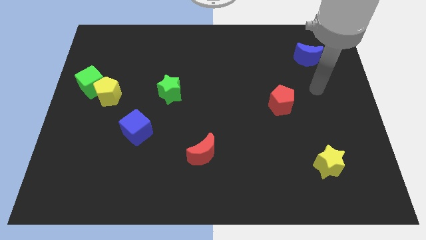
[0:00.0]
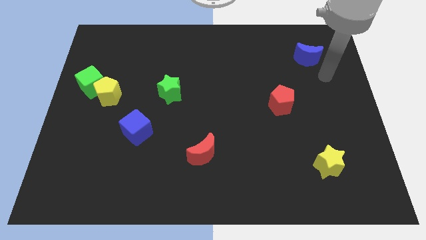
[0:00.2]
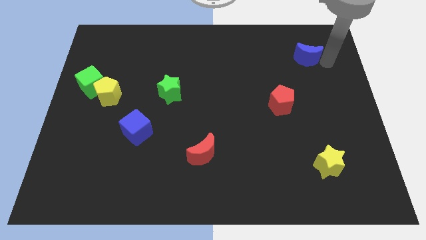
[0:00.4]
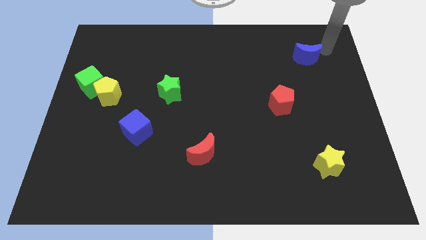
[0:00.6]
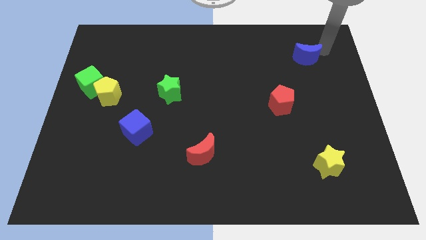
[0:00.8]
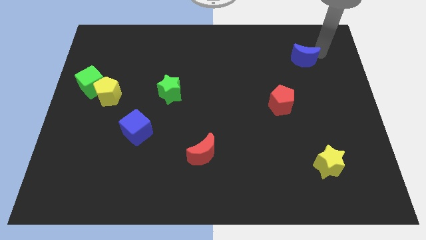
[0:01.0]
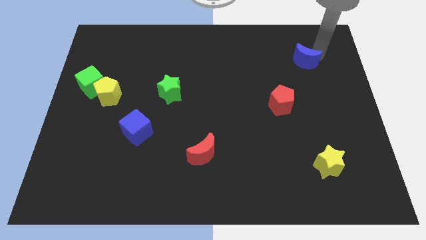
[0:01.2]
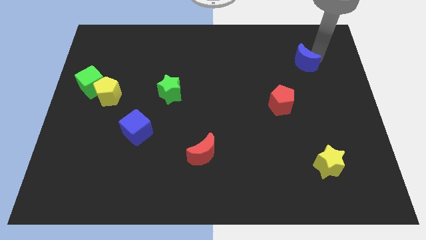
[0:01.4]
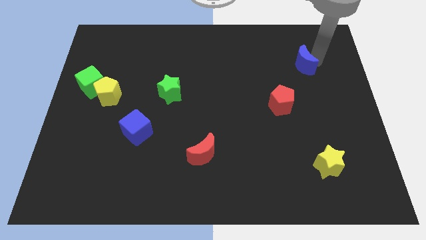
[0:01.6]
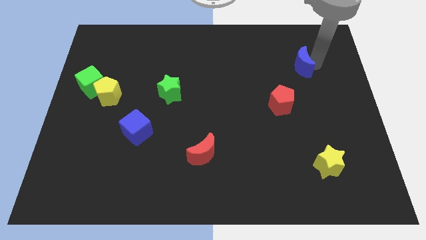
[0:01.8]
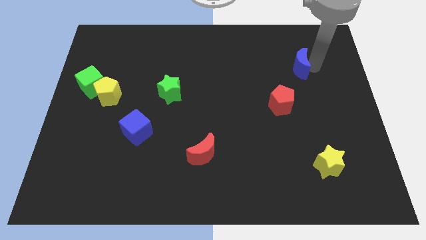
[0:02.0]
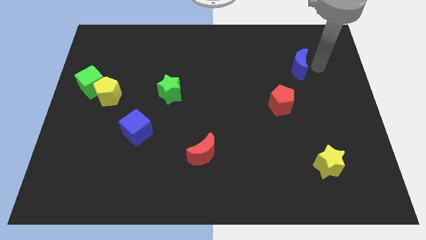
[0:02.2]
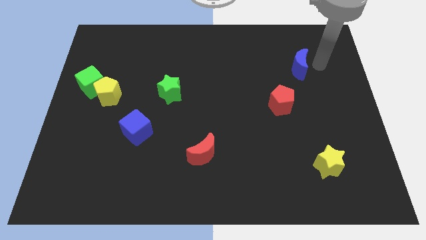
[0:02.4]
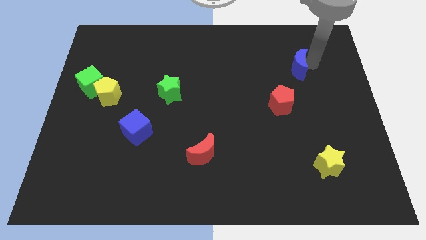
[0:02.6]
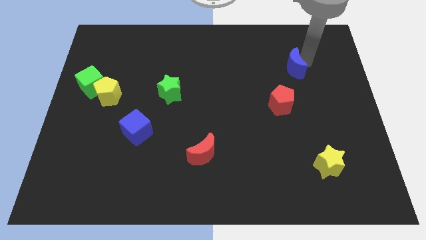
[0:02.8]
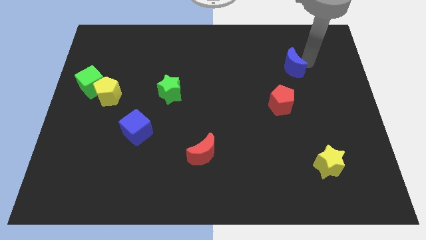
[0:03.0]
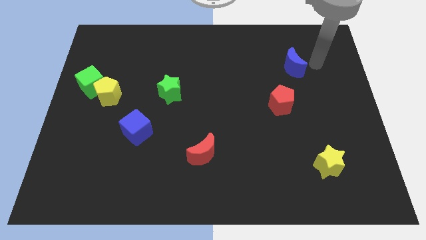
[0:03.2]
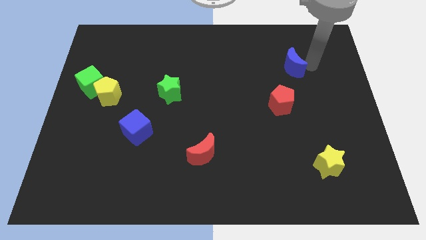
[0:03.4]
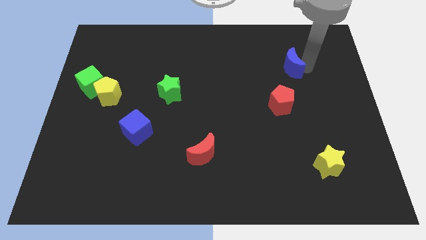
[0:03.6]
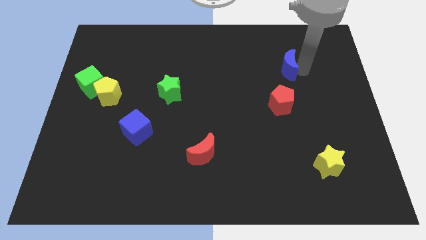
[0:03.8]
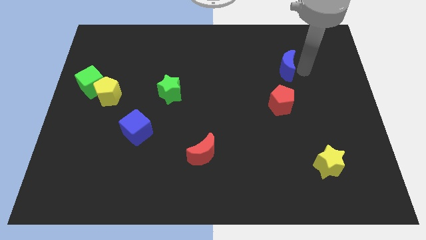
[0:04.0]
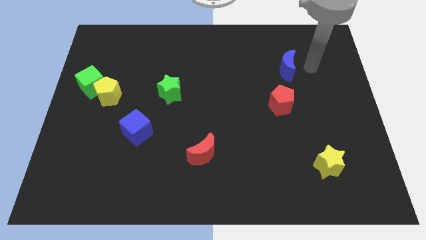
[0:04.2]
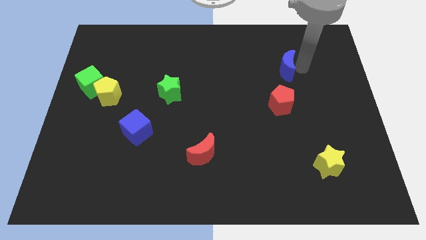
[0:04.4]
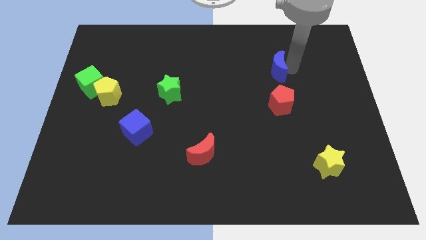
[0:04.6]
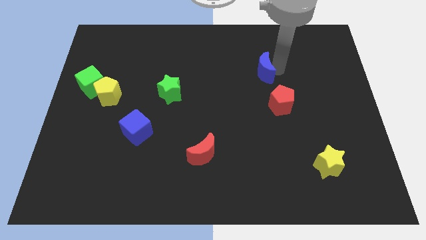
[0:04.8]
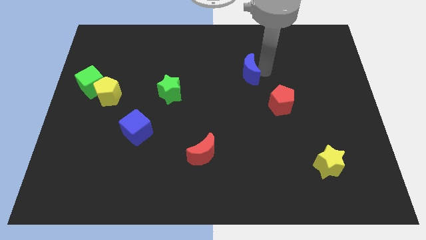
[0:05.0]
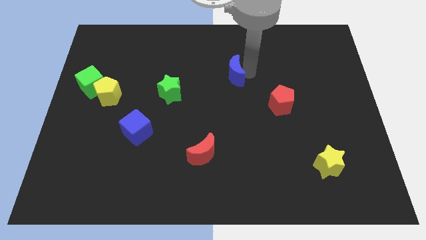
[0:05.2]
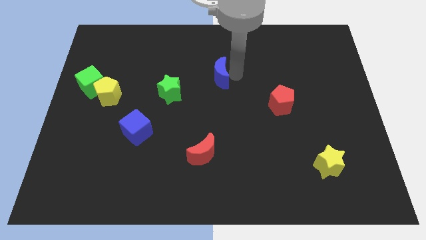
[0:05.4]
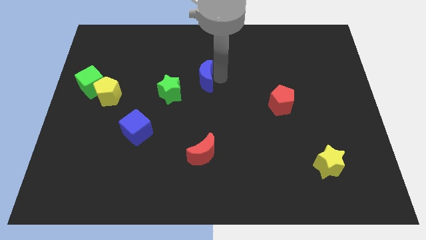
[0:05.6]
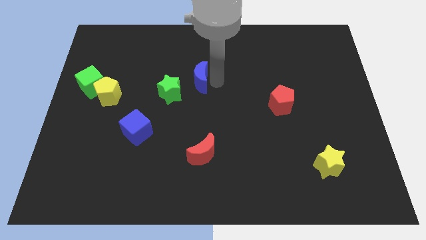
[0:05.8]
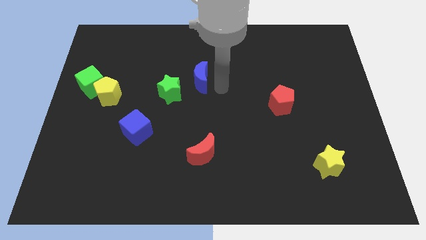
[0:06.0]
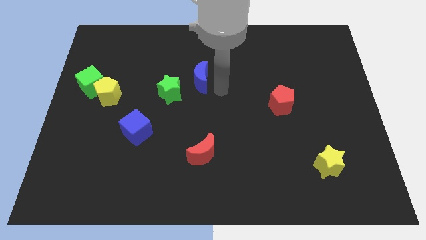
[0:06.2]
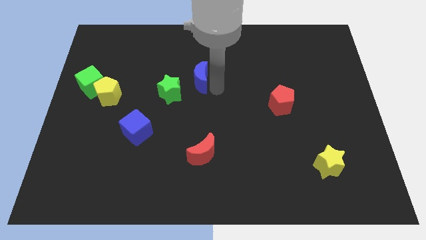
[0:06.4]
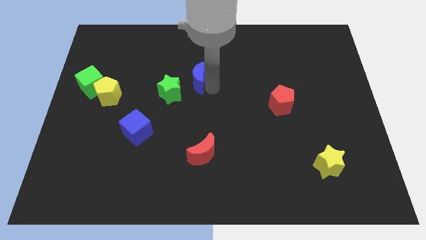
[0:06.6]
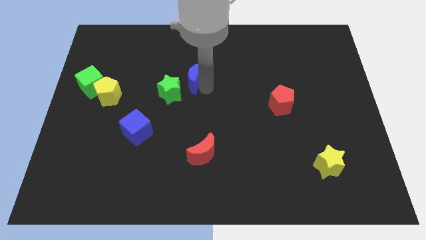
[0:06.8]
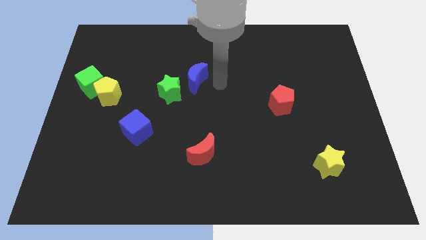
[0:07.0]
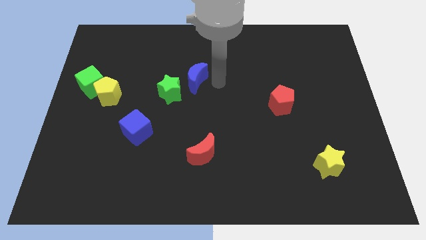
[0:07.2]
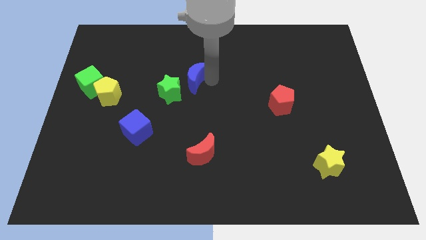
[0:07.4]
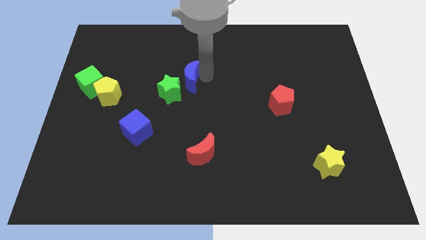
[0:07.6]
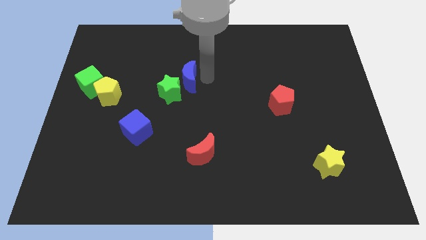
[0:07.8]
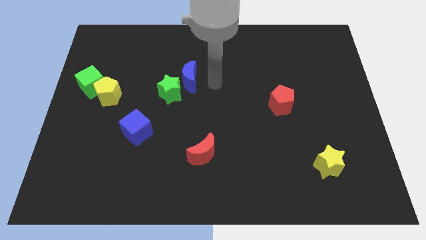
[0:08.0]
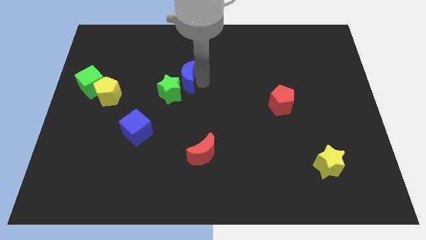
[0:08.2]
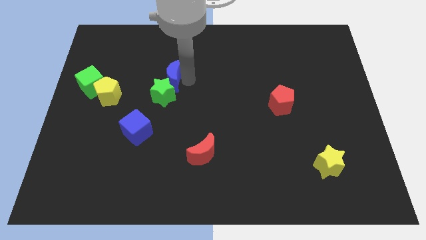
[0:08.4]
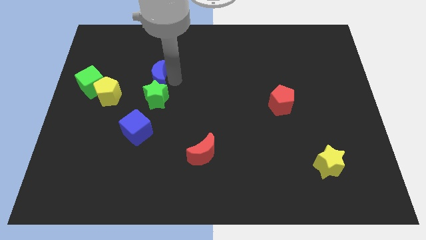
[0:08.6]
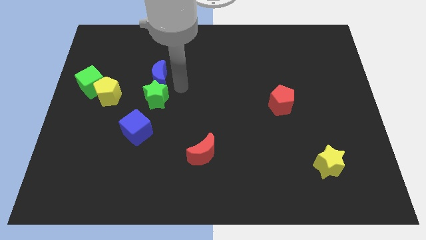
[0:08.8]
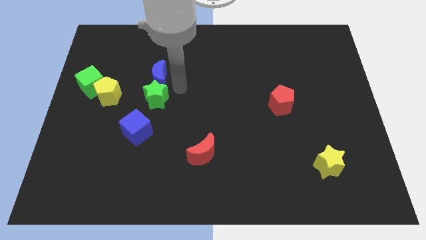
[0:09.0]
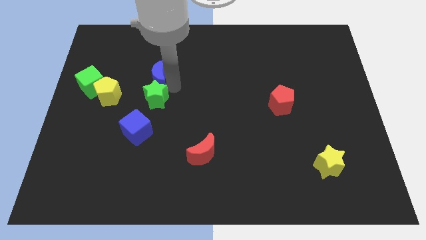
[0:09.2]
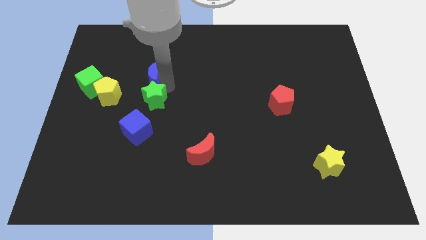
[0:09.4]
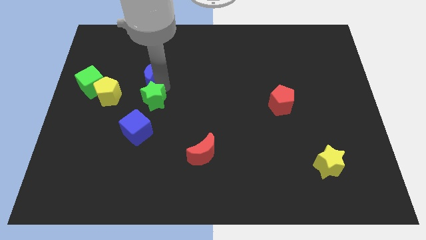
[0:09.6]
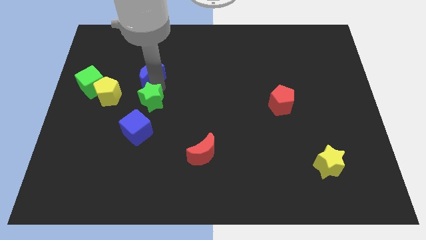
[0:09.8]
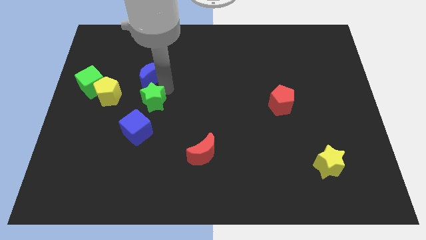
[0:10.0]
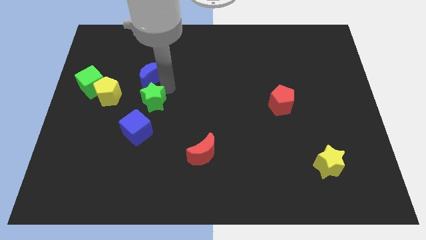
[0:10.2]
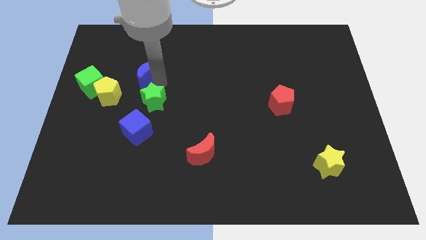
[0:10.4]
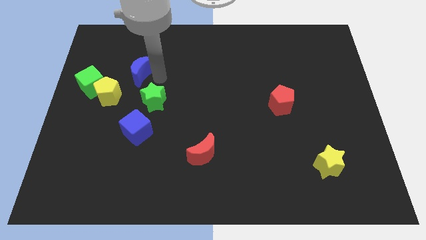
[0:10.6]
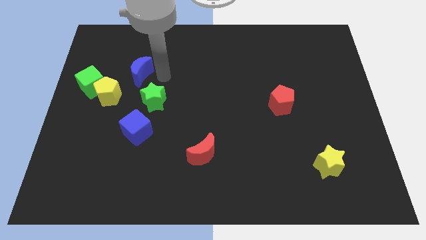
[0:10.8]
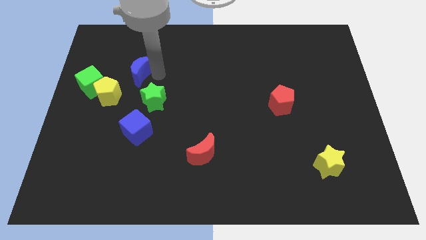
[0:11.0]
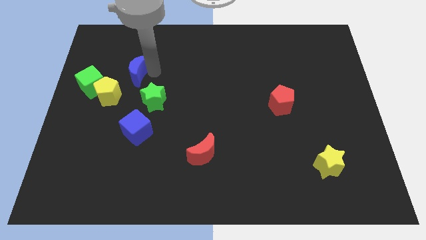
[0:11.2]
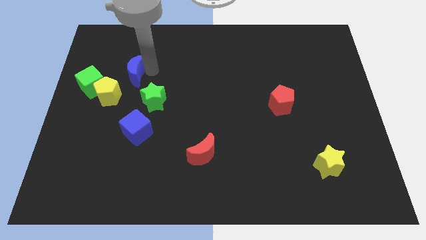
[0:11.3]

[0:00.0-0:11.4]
move the blue moon to the top right side of the green cube
